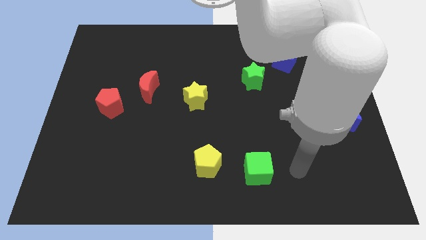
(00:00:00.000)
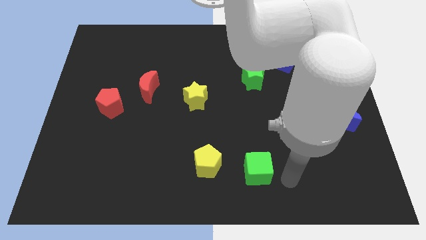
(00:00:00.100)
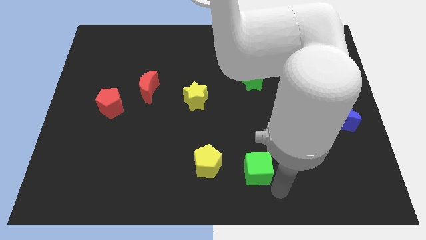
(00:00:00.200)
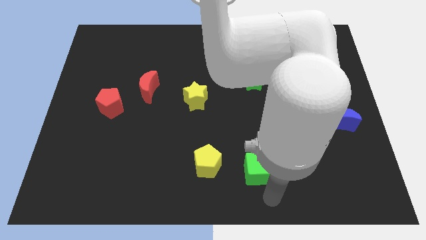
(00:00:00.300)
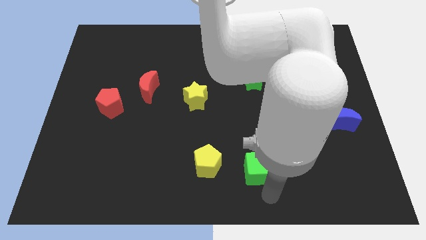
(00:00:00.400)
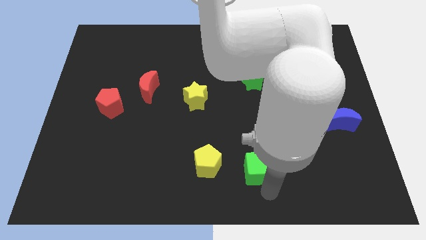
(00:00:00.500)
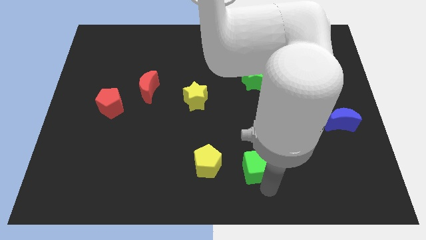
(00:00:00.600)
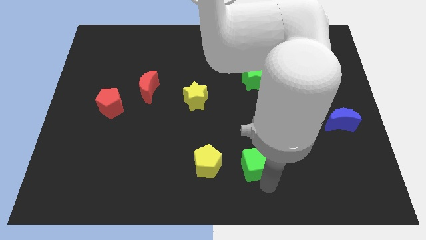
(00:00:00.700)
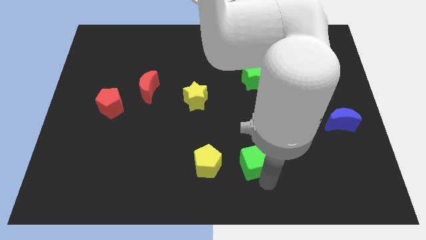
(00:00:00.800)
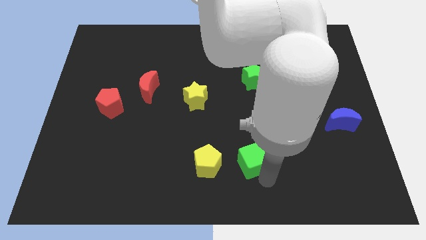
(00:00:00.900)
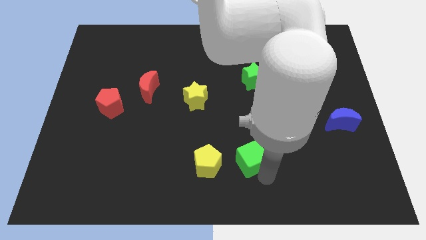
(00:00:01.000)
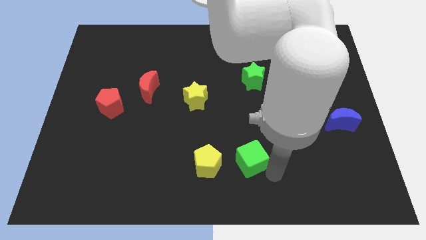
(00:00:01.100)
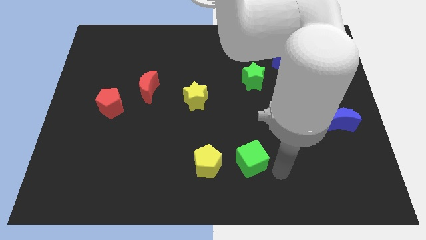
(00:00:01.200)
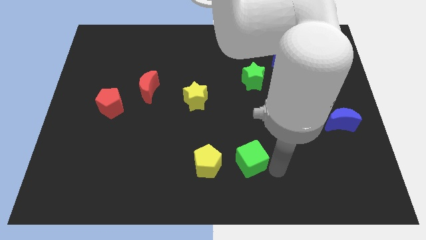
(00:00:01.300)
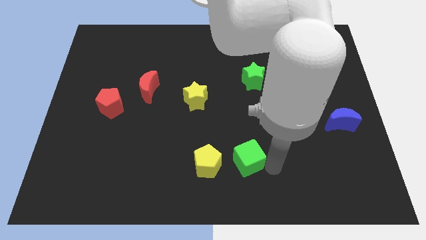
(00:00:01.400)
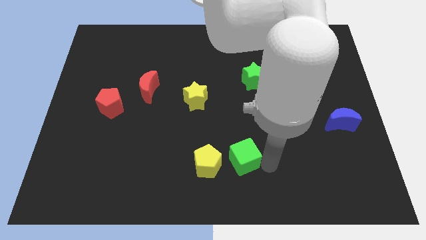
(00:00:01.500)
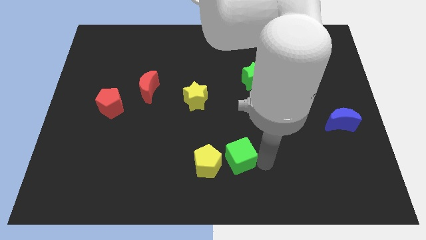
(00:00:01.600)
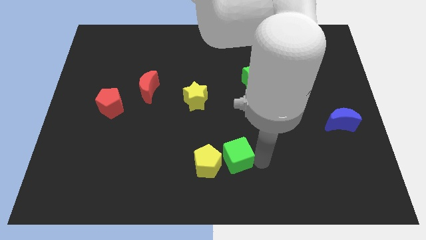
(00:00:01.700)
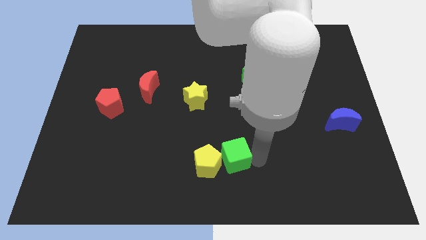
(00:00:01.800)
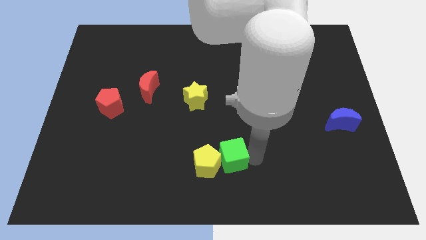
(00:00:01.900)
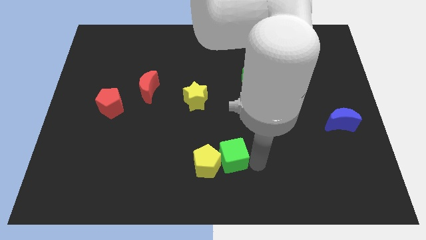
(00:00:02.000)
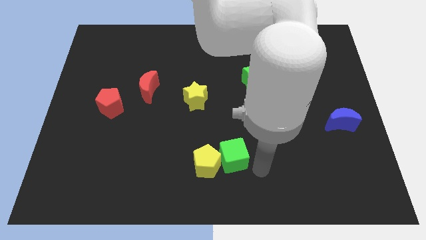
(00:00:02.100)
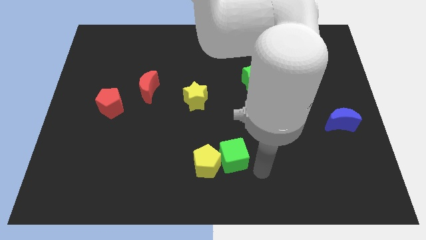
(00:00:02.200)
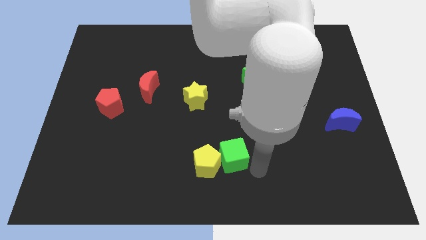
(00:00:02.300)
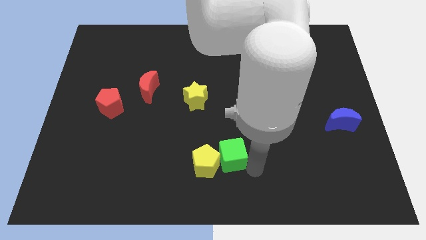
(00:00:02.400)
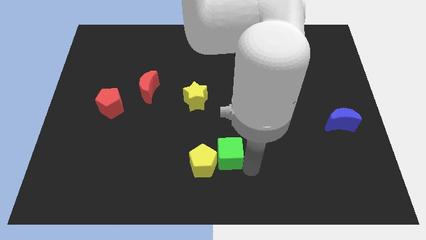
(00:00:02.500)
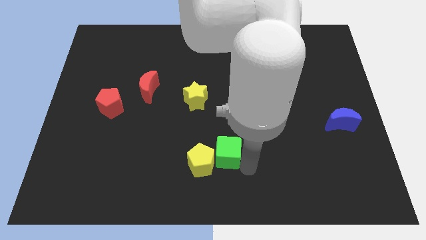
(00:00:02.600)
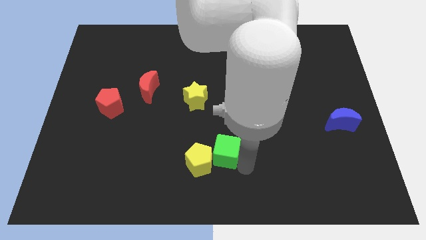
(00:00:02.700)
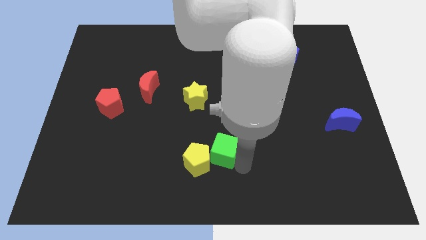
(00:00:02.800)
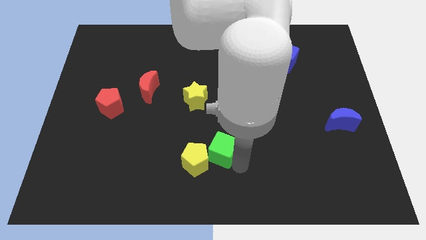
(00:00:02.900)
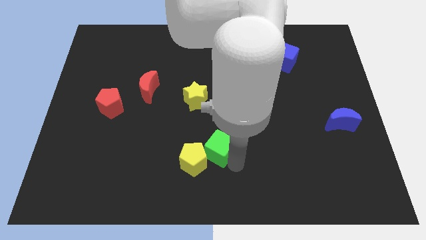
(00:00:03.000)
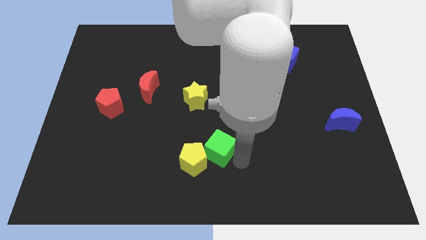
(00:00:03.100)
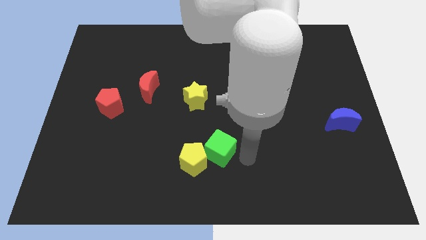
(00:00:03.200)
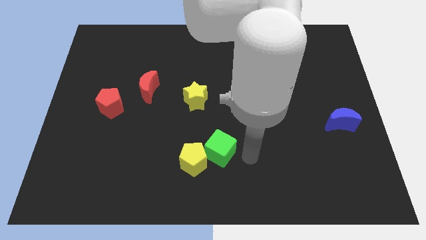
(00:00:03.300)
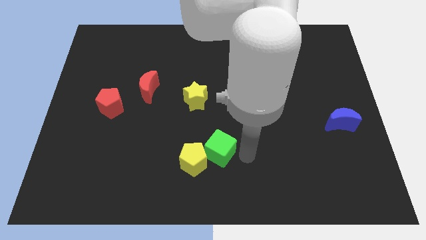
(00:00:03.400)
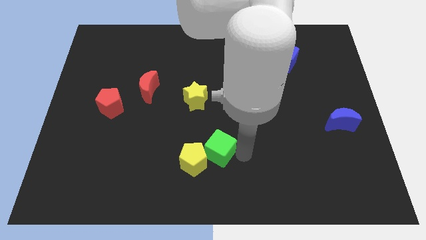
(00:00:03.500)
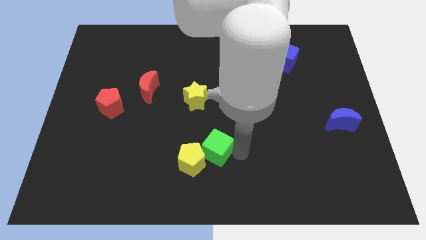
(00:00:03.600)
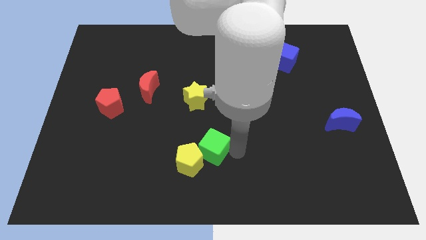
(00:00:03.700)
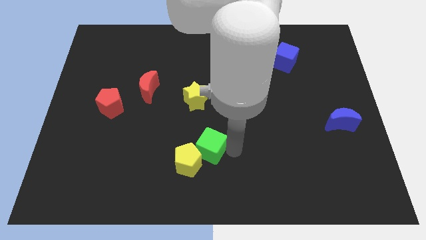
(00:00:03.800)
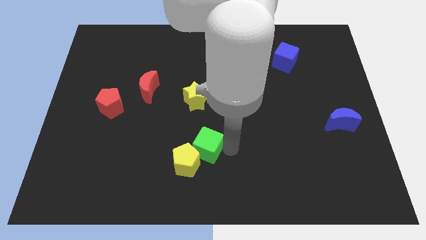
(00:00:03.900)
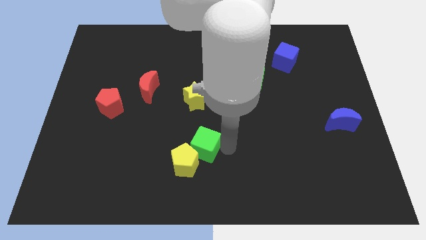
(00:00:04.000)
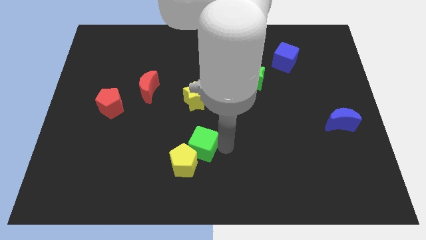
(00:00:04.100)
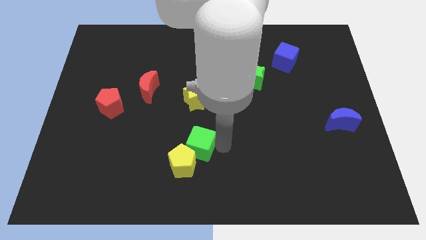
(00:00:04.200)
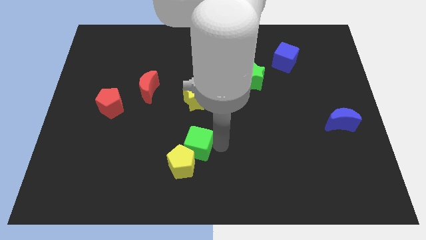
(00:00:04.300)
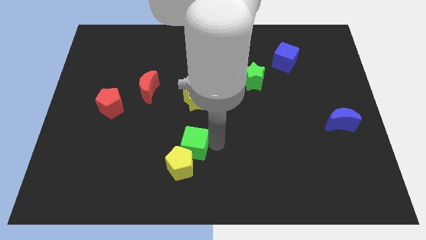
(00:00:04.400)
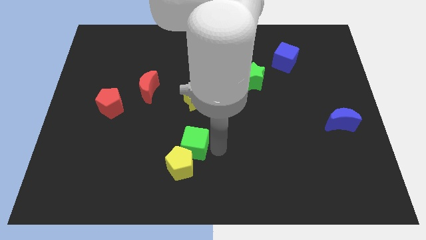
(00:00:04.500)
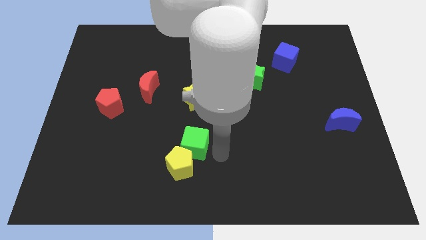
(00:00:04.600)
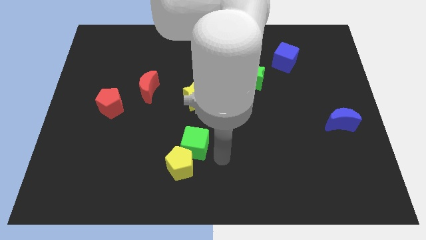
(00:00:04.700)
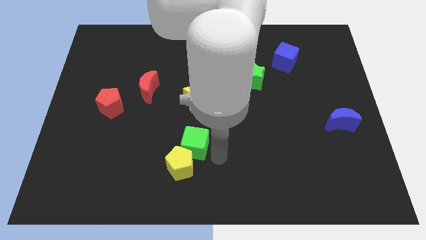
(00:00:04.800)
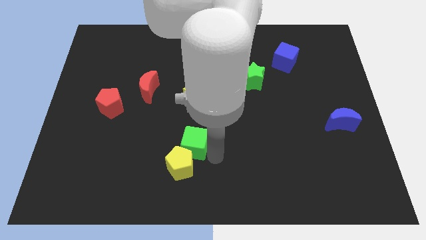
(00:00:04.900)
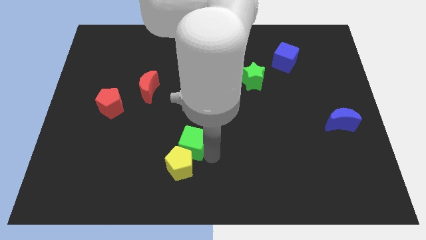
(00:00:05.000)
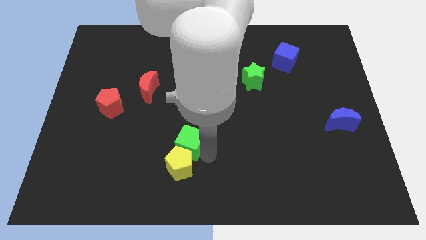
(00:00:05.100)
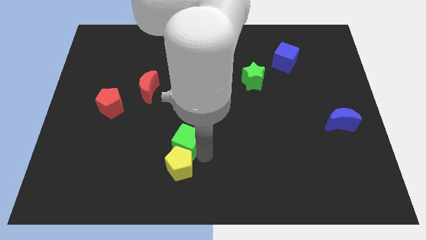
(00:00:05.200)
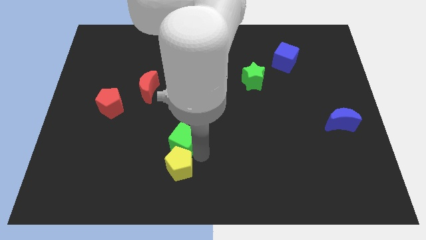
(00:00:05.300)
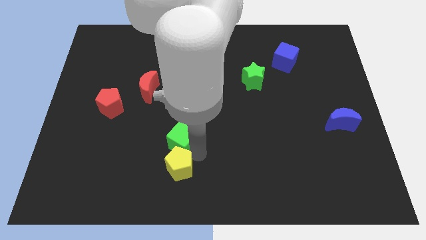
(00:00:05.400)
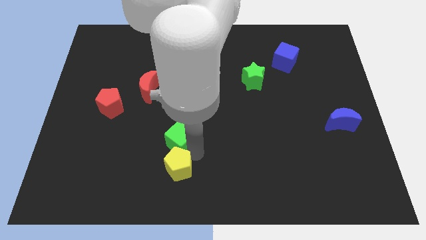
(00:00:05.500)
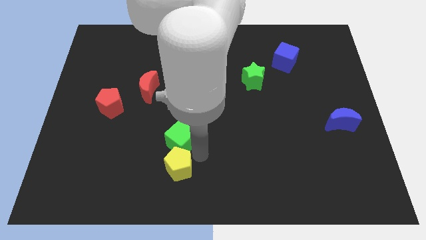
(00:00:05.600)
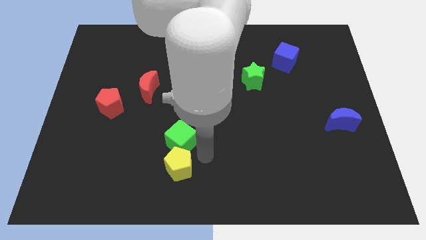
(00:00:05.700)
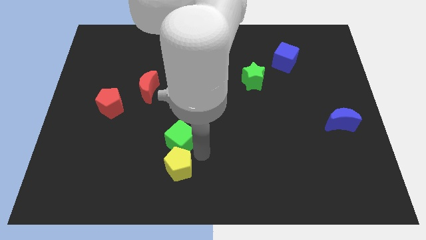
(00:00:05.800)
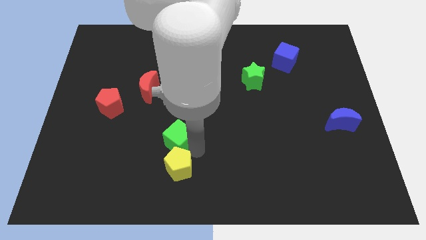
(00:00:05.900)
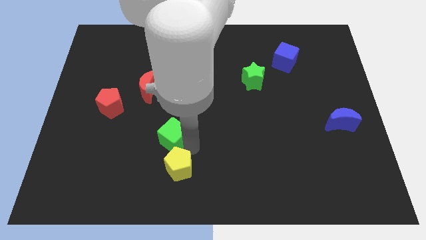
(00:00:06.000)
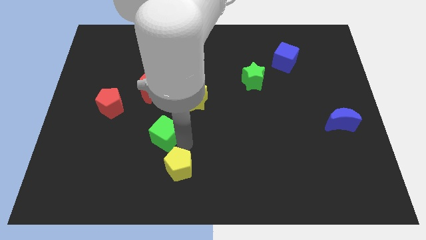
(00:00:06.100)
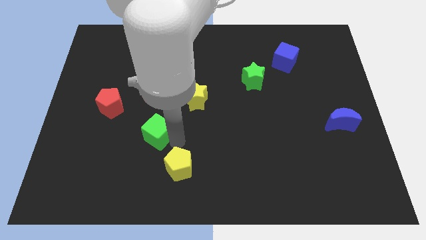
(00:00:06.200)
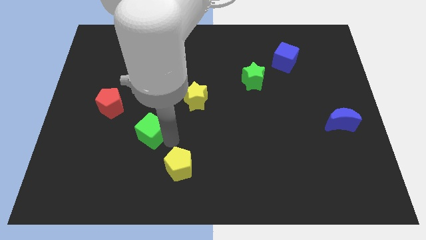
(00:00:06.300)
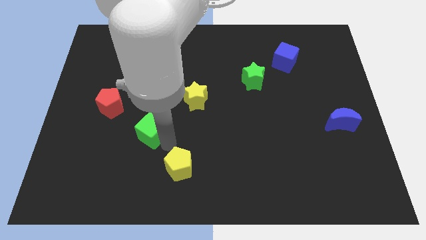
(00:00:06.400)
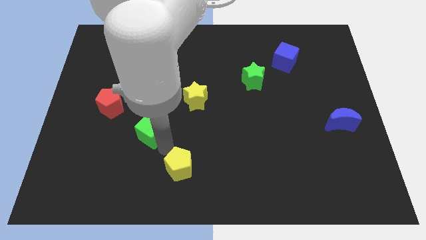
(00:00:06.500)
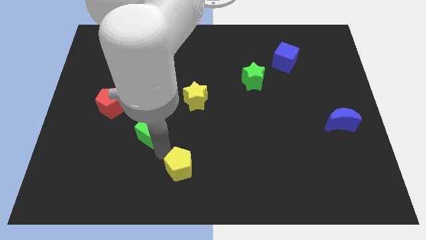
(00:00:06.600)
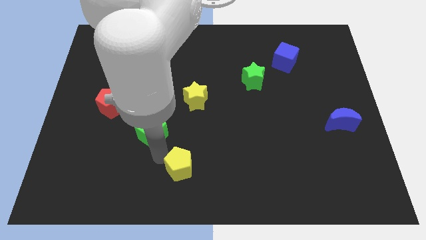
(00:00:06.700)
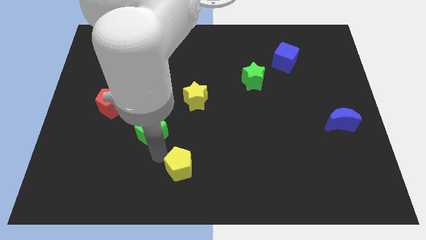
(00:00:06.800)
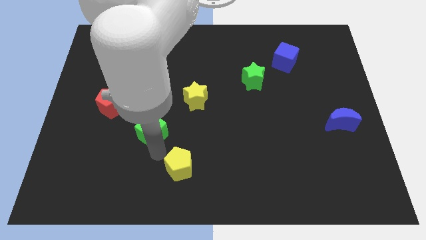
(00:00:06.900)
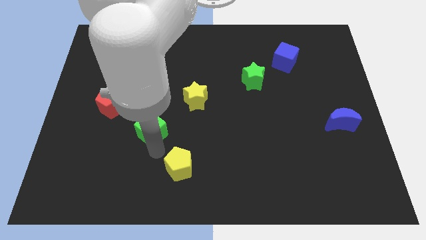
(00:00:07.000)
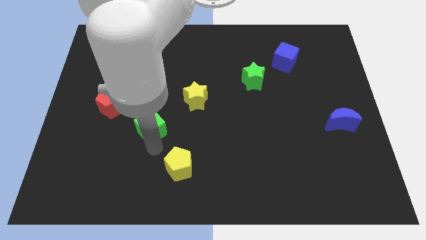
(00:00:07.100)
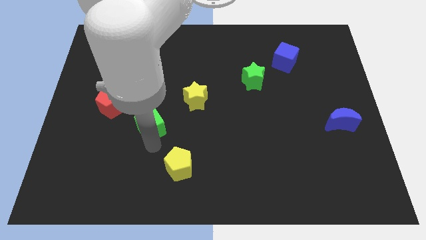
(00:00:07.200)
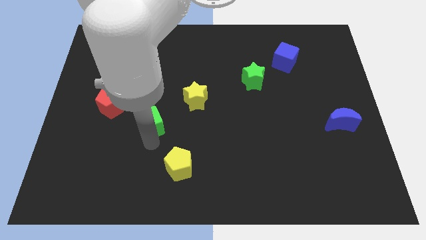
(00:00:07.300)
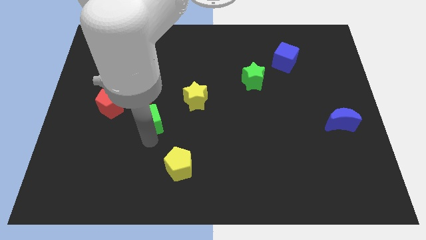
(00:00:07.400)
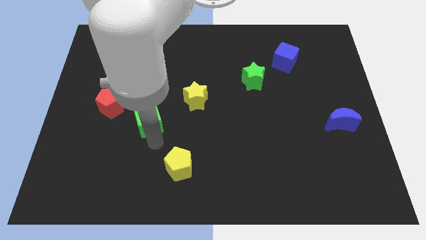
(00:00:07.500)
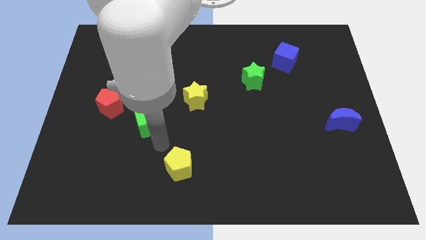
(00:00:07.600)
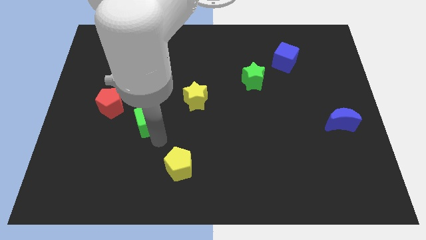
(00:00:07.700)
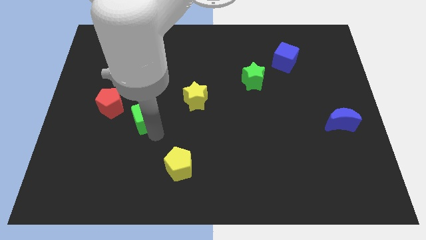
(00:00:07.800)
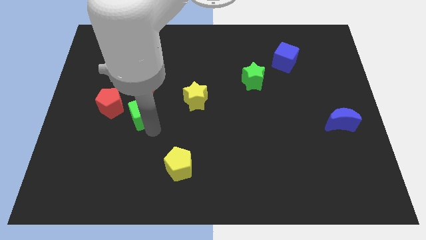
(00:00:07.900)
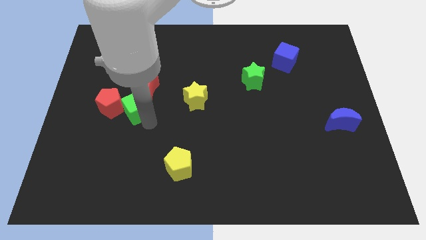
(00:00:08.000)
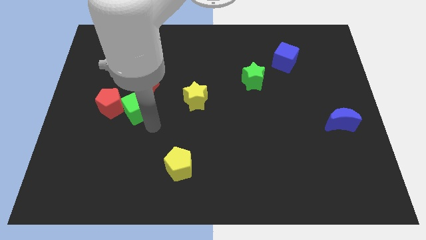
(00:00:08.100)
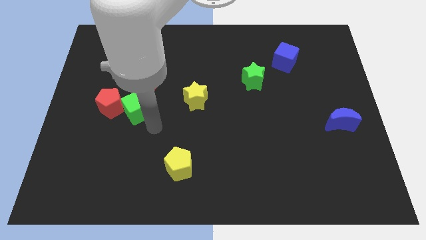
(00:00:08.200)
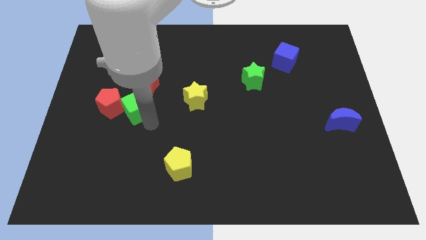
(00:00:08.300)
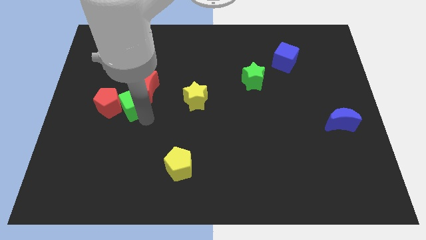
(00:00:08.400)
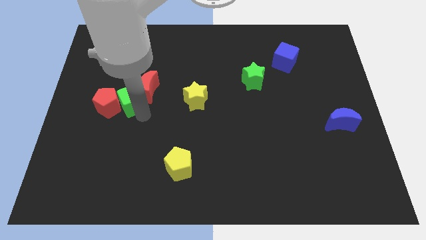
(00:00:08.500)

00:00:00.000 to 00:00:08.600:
move the green cube to the left side of the red moon
